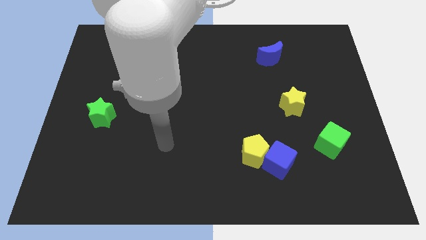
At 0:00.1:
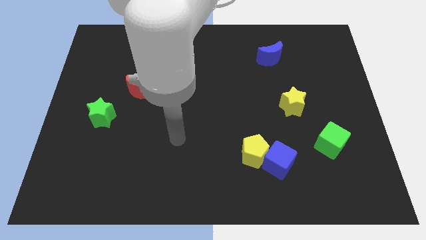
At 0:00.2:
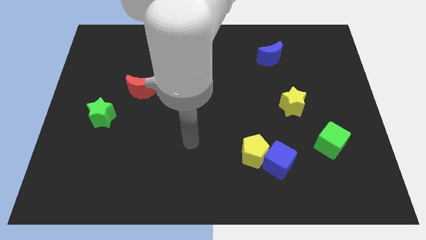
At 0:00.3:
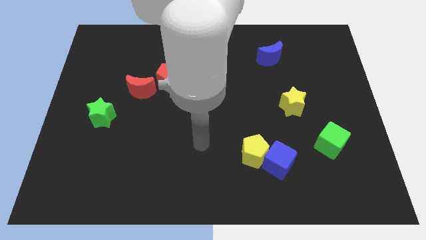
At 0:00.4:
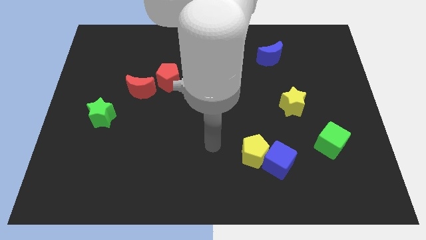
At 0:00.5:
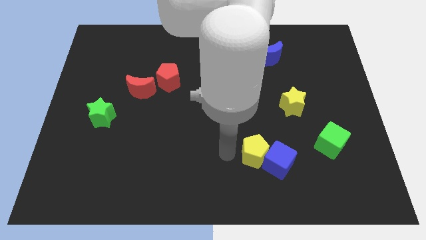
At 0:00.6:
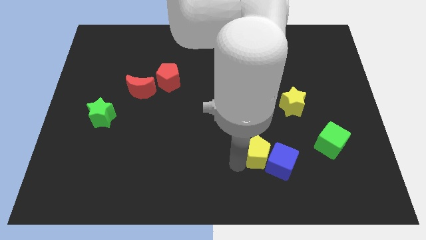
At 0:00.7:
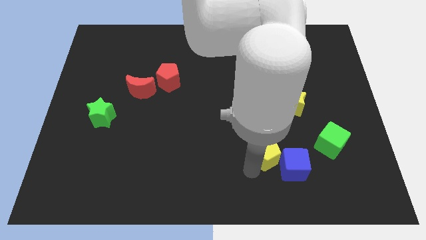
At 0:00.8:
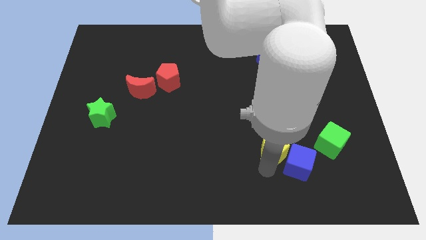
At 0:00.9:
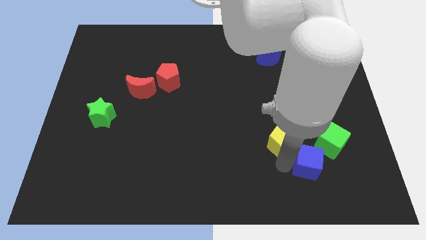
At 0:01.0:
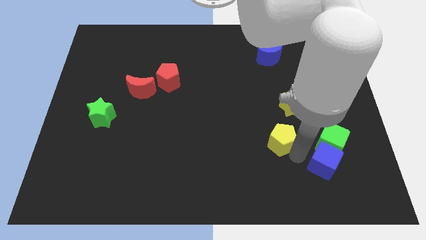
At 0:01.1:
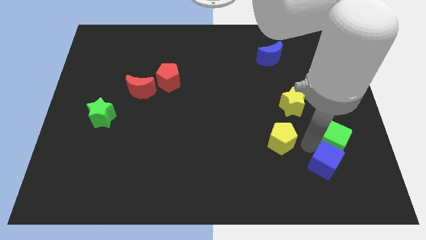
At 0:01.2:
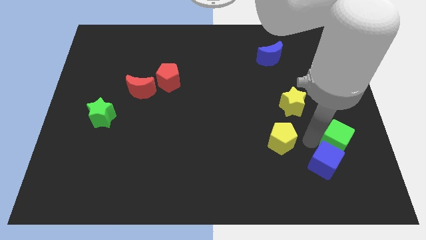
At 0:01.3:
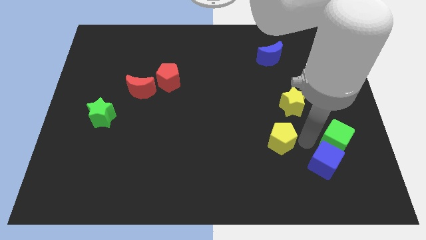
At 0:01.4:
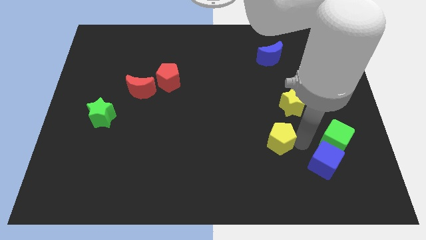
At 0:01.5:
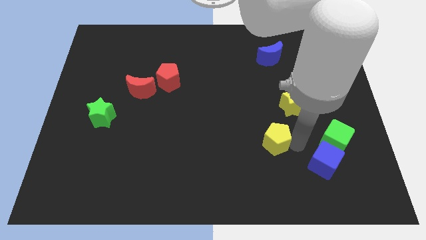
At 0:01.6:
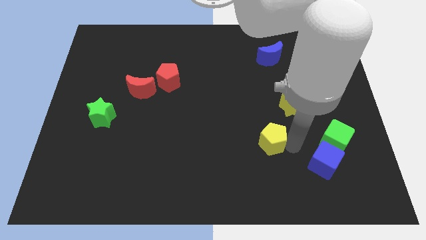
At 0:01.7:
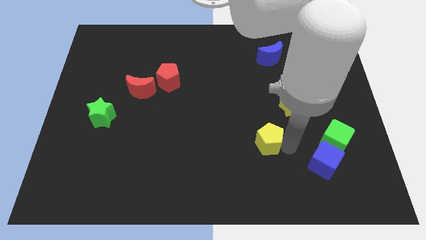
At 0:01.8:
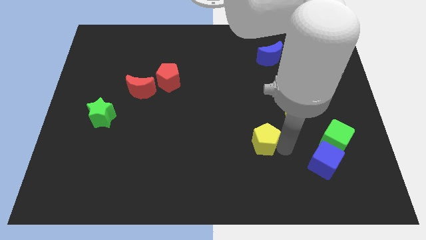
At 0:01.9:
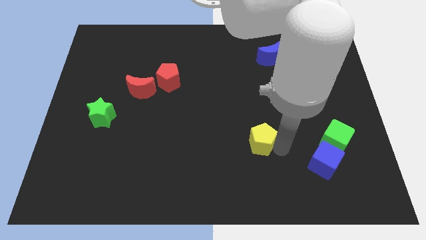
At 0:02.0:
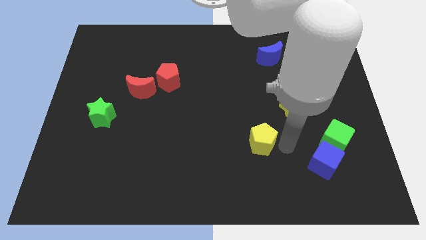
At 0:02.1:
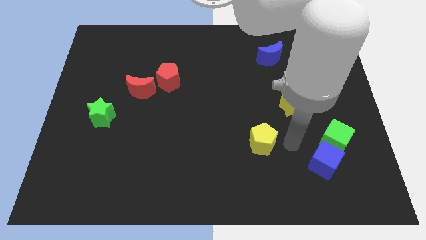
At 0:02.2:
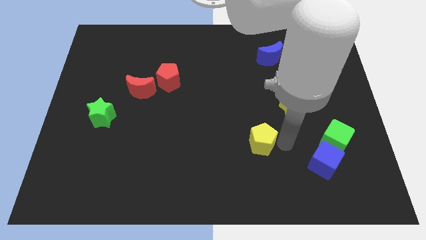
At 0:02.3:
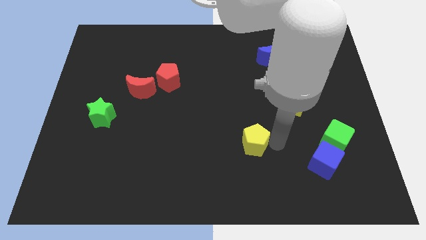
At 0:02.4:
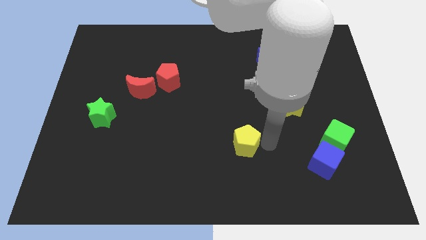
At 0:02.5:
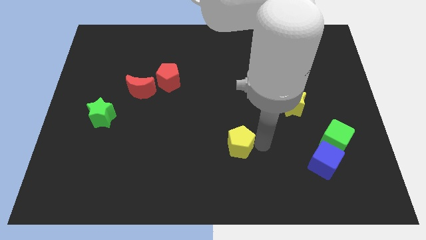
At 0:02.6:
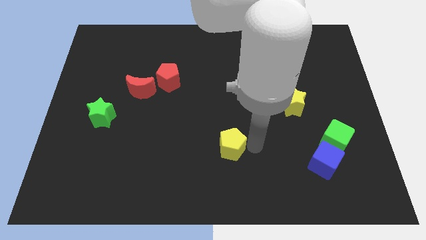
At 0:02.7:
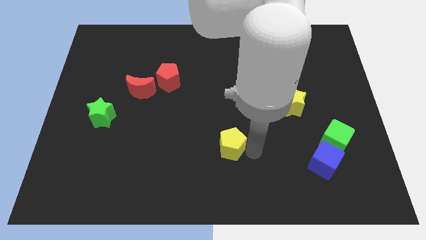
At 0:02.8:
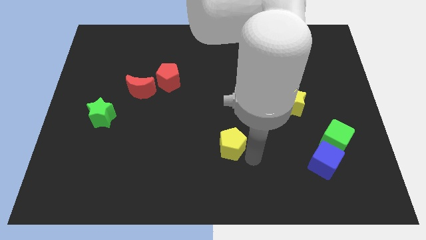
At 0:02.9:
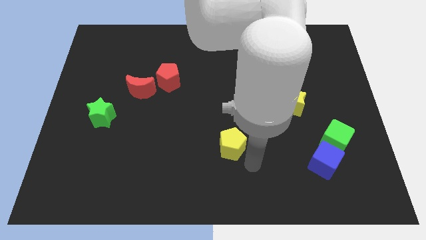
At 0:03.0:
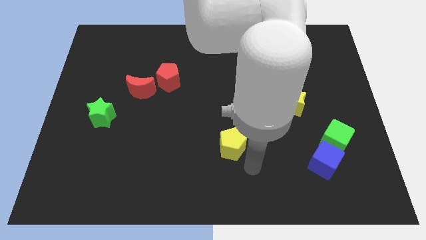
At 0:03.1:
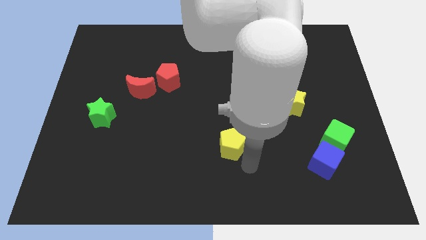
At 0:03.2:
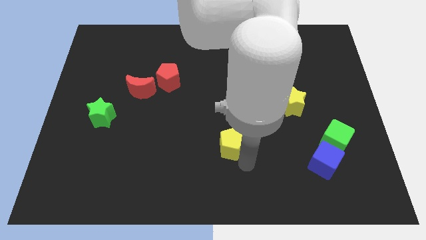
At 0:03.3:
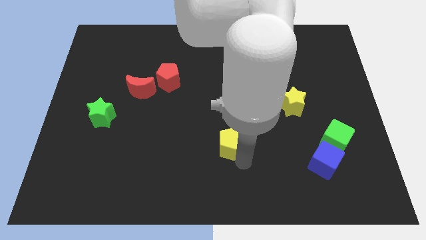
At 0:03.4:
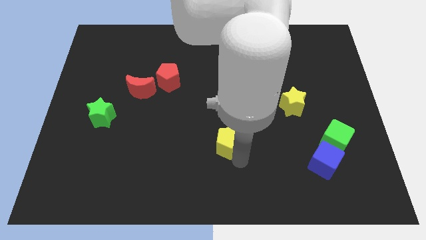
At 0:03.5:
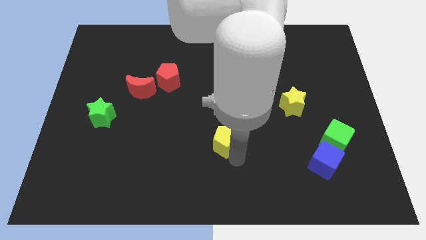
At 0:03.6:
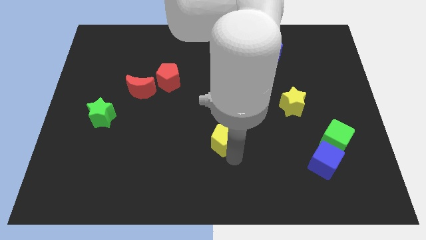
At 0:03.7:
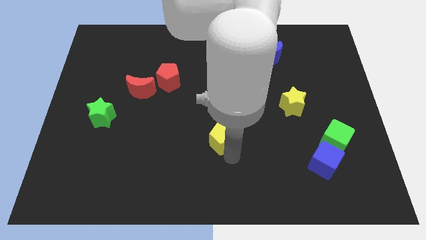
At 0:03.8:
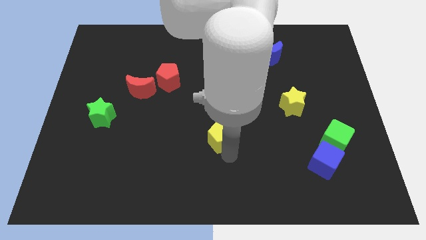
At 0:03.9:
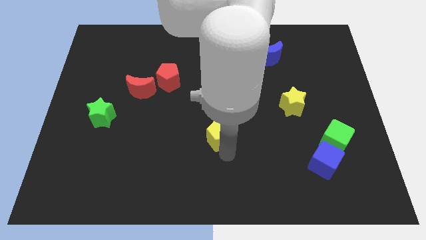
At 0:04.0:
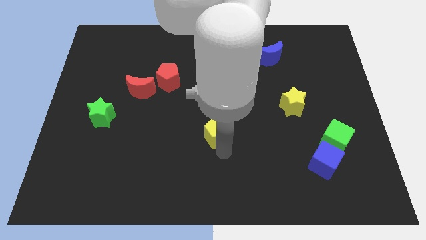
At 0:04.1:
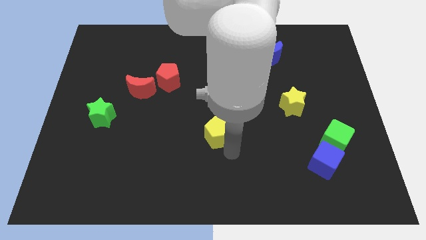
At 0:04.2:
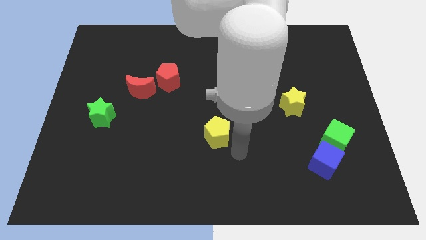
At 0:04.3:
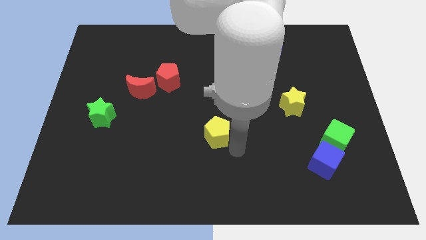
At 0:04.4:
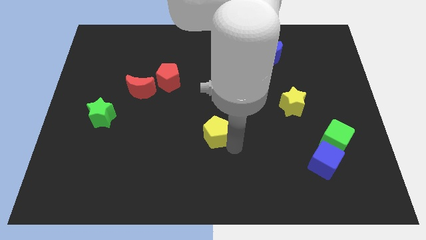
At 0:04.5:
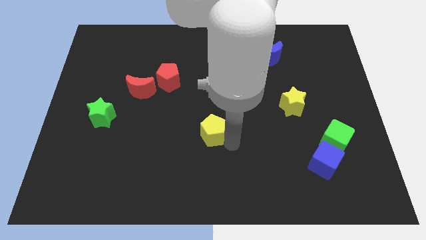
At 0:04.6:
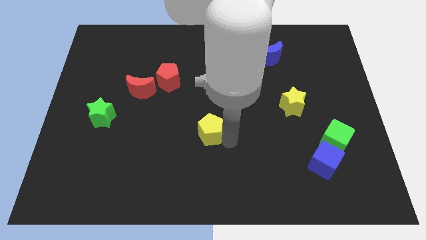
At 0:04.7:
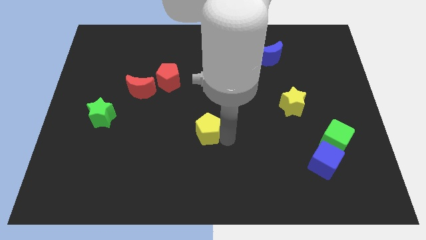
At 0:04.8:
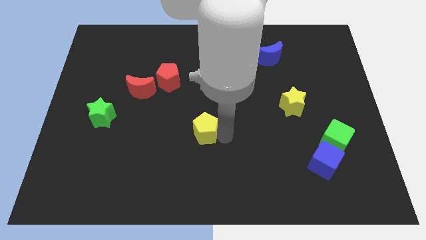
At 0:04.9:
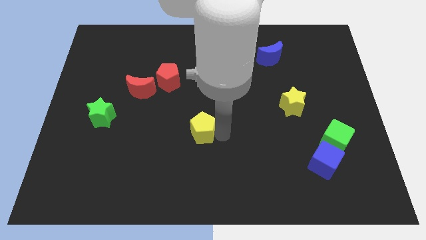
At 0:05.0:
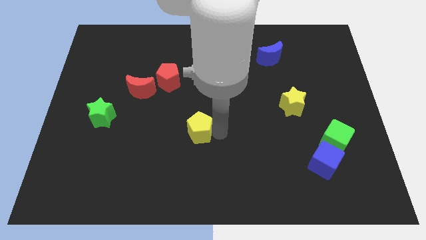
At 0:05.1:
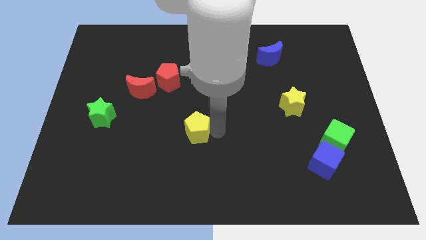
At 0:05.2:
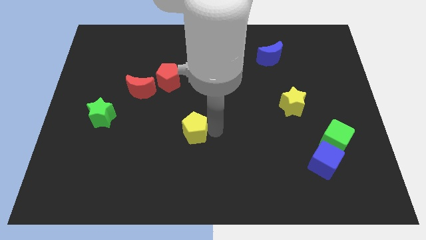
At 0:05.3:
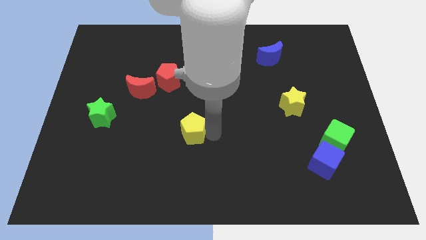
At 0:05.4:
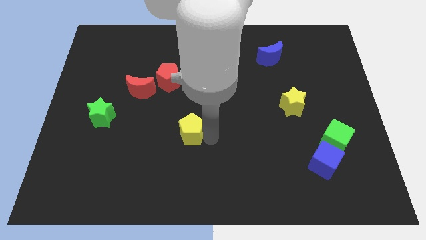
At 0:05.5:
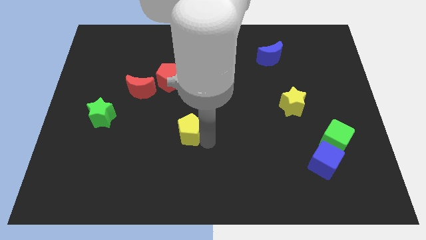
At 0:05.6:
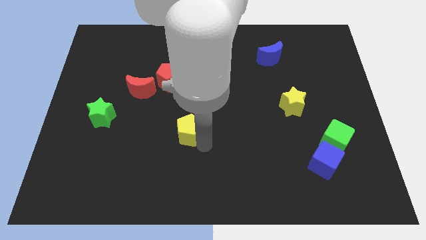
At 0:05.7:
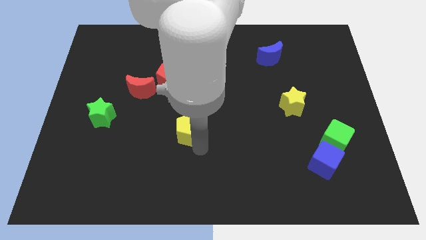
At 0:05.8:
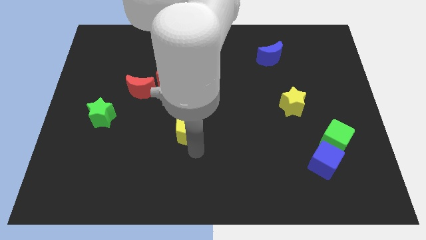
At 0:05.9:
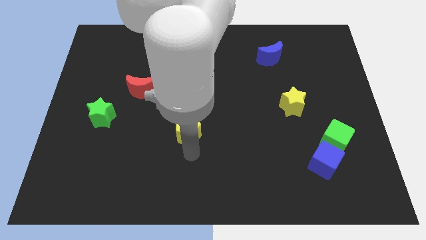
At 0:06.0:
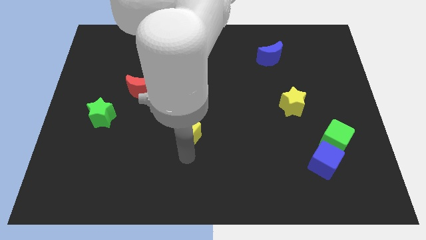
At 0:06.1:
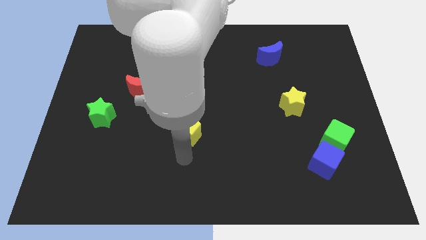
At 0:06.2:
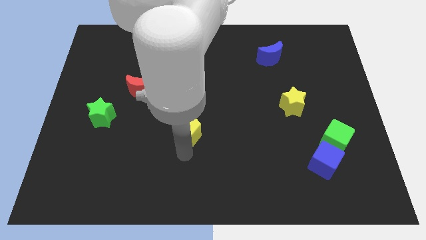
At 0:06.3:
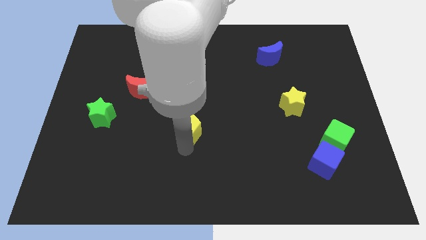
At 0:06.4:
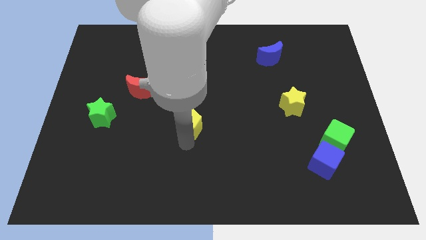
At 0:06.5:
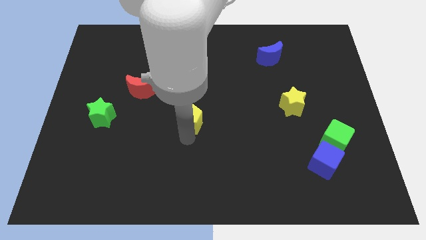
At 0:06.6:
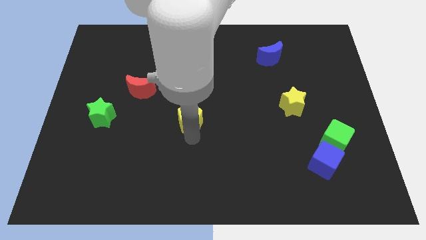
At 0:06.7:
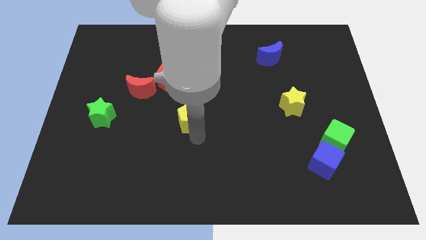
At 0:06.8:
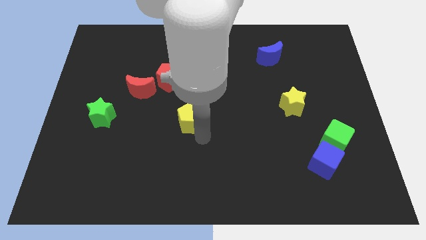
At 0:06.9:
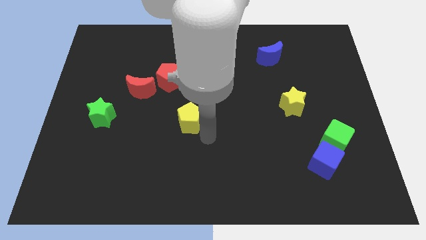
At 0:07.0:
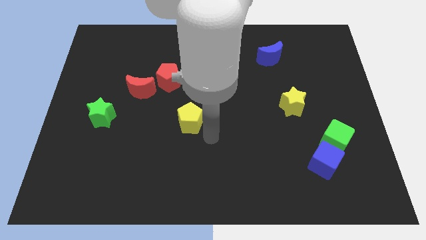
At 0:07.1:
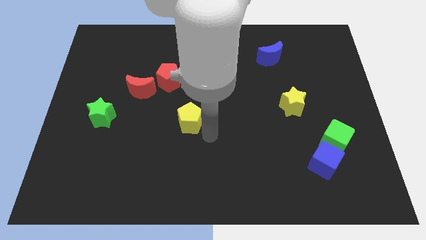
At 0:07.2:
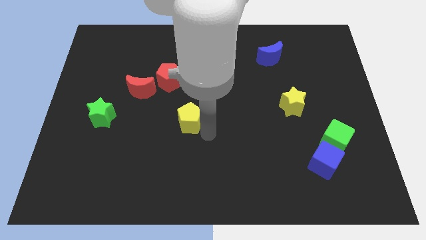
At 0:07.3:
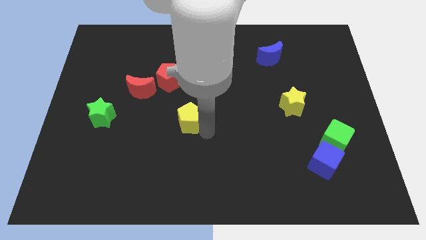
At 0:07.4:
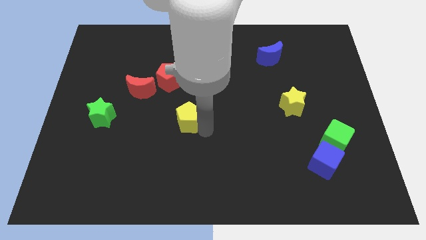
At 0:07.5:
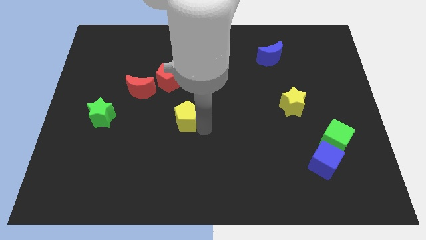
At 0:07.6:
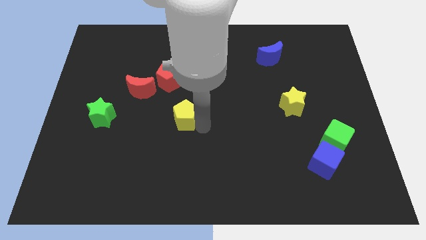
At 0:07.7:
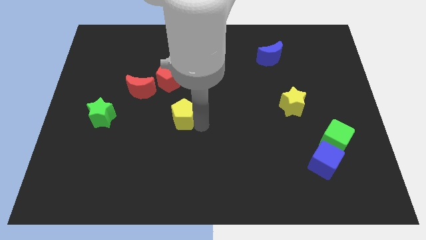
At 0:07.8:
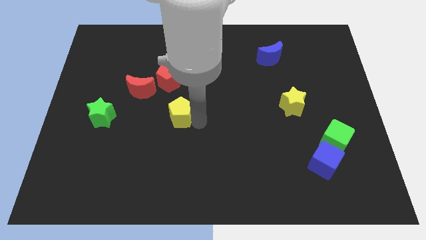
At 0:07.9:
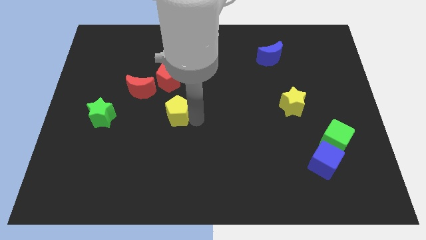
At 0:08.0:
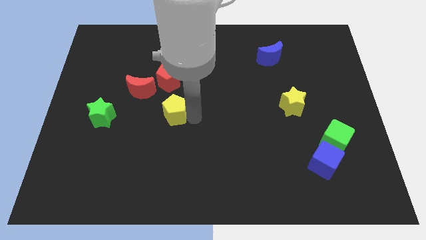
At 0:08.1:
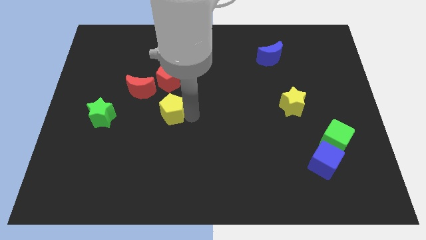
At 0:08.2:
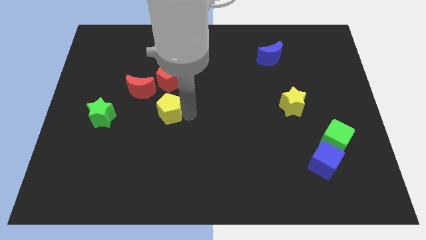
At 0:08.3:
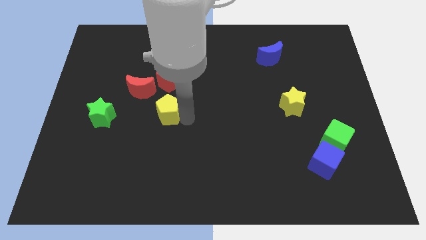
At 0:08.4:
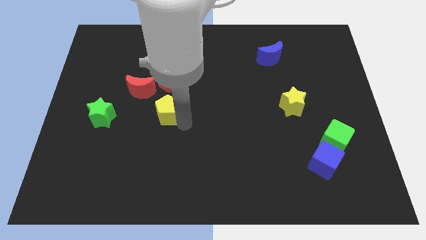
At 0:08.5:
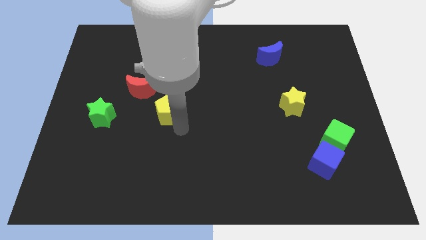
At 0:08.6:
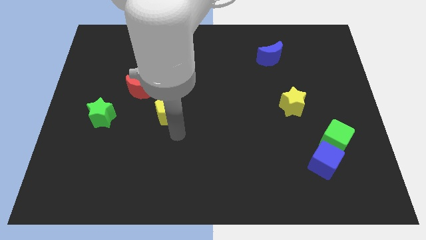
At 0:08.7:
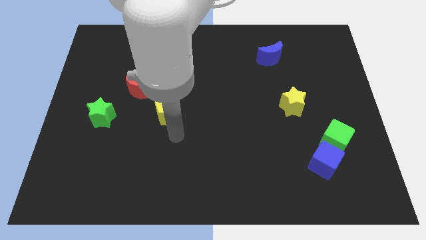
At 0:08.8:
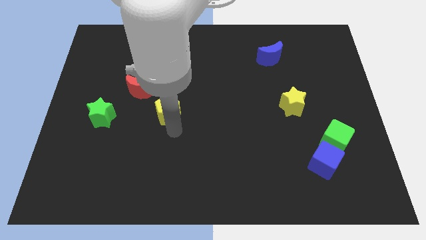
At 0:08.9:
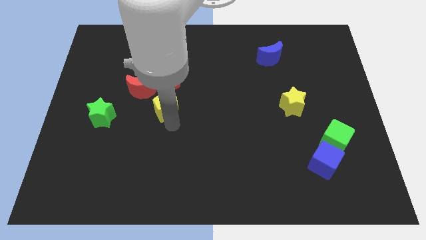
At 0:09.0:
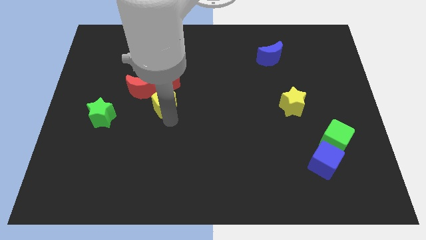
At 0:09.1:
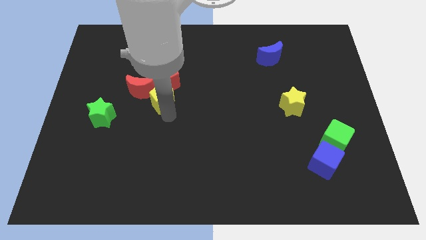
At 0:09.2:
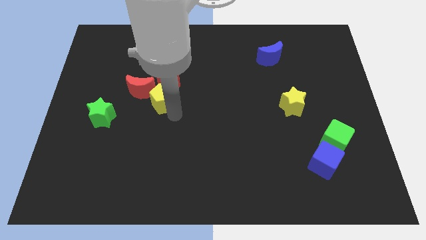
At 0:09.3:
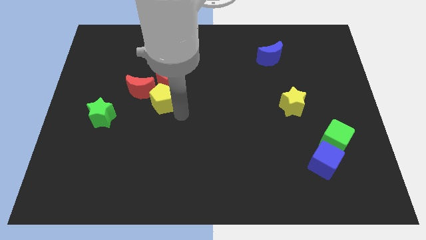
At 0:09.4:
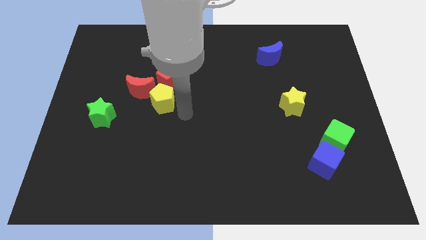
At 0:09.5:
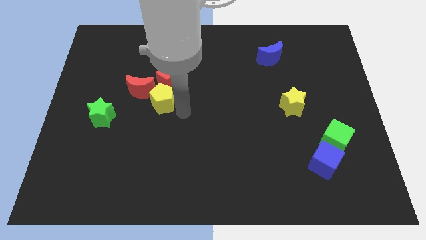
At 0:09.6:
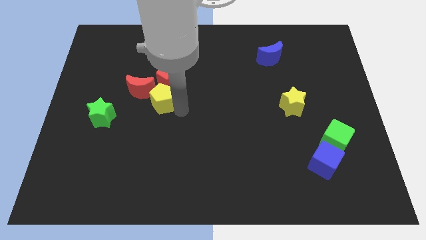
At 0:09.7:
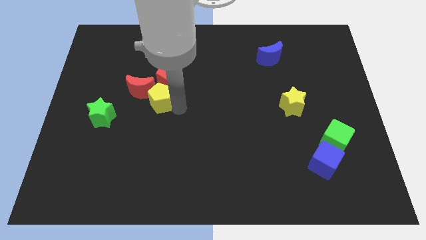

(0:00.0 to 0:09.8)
slide the yellow pentagon next to the red moon
